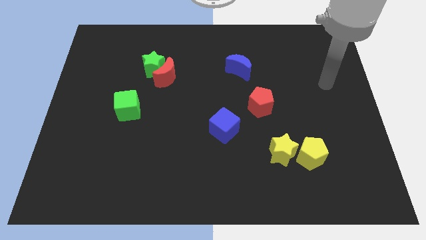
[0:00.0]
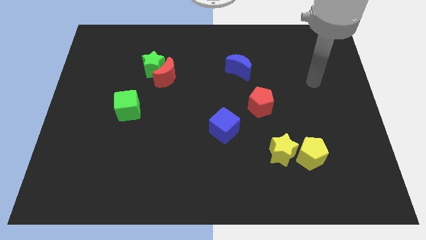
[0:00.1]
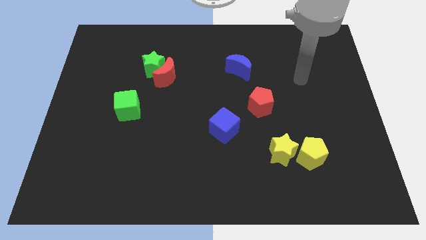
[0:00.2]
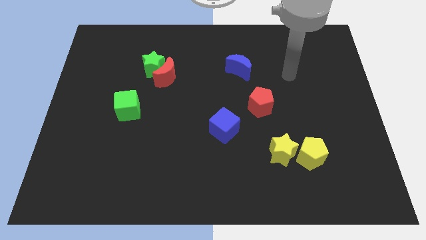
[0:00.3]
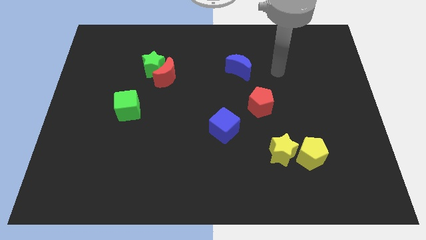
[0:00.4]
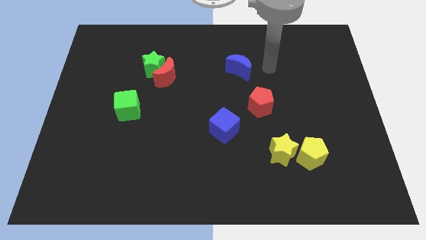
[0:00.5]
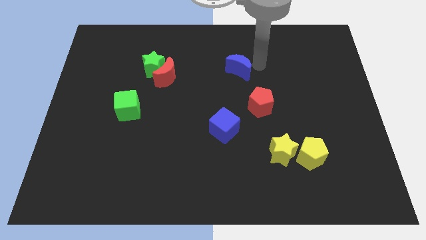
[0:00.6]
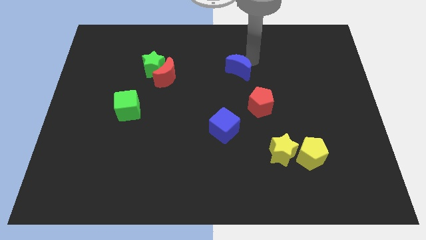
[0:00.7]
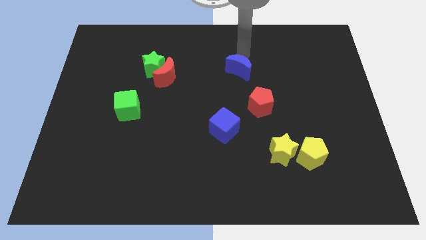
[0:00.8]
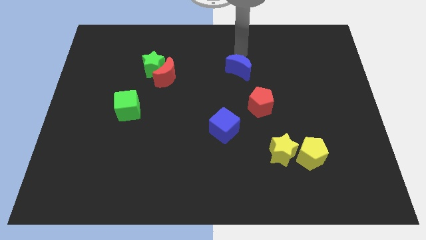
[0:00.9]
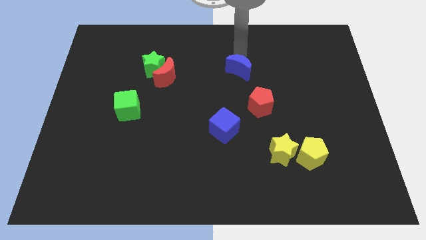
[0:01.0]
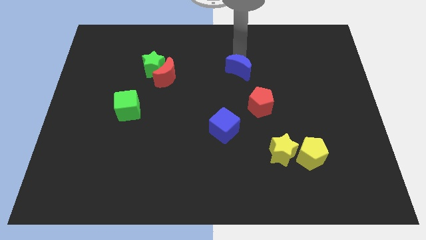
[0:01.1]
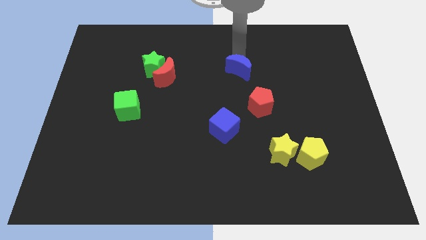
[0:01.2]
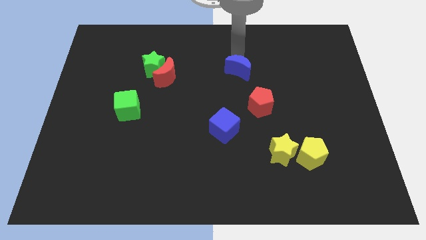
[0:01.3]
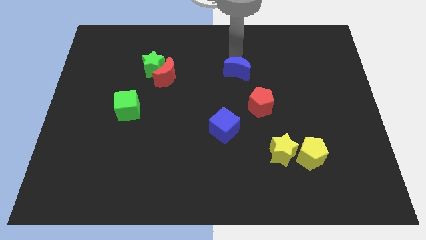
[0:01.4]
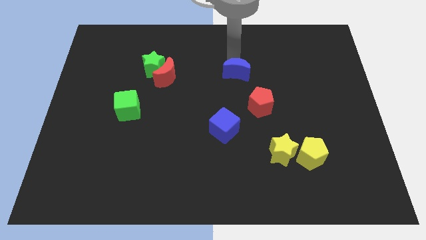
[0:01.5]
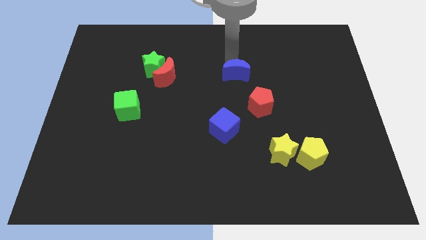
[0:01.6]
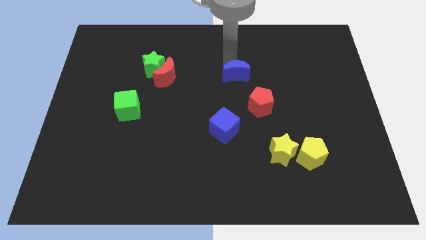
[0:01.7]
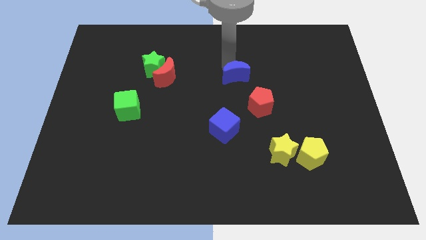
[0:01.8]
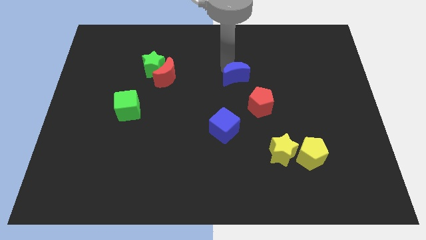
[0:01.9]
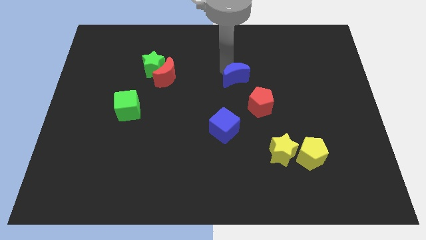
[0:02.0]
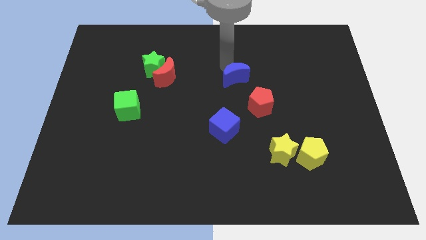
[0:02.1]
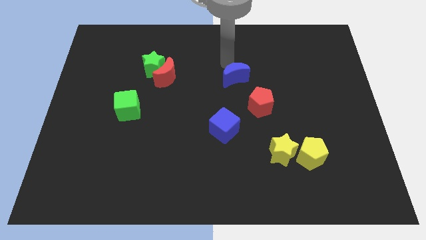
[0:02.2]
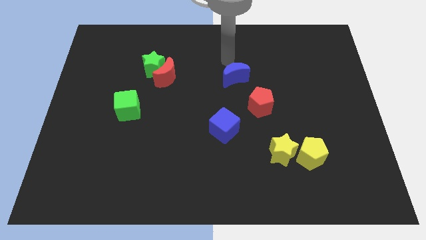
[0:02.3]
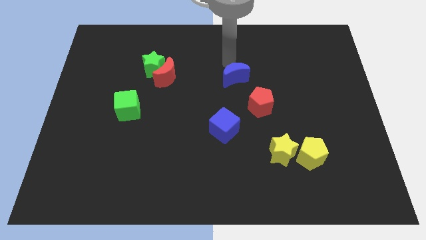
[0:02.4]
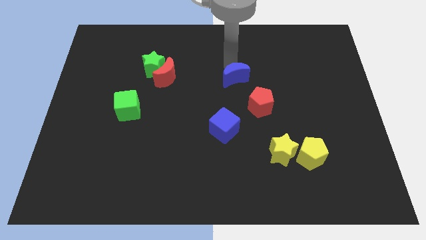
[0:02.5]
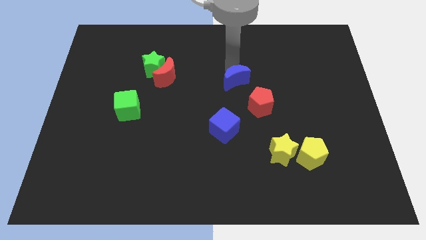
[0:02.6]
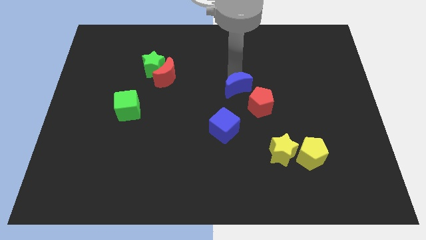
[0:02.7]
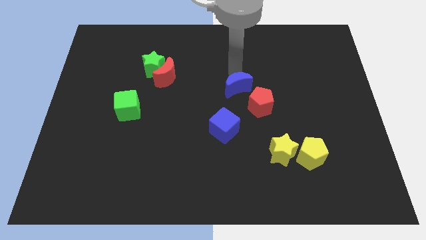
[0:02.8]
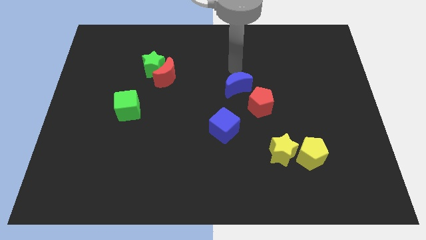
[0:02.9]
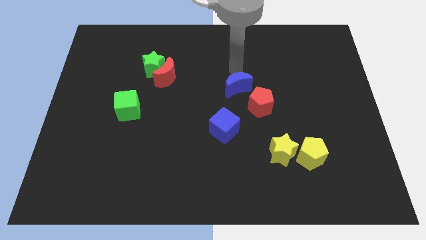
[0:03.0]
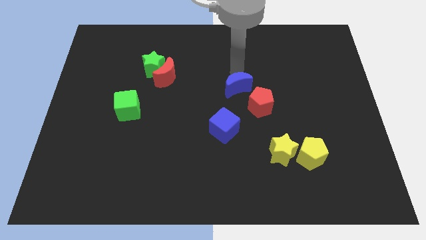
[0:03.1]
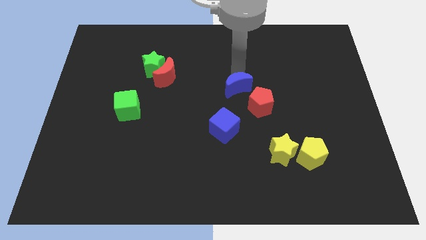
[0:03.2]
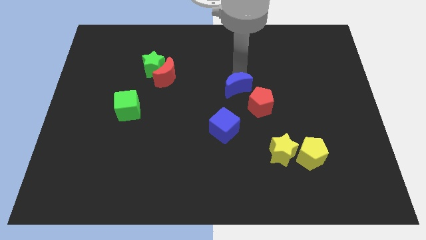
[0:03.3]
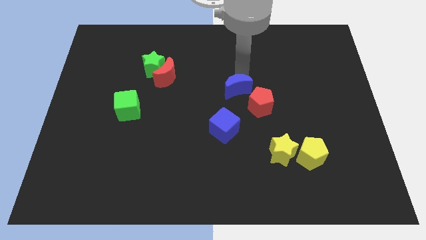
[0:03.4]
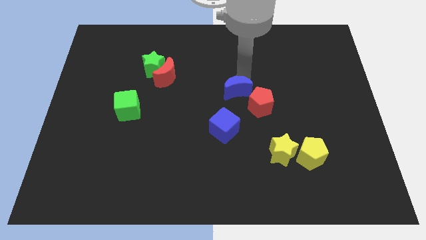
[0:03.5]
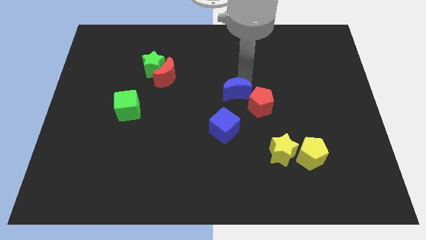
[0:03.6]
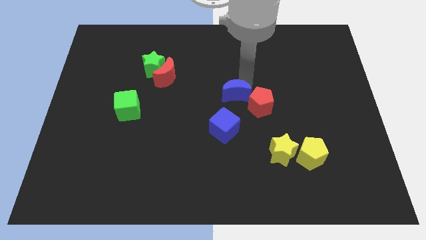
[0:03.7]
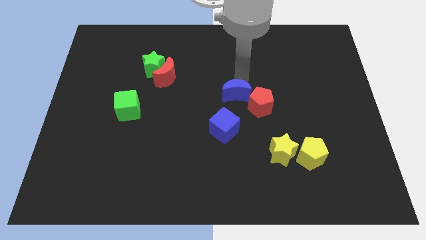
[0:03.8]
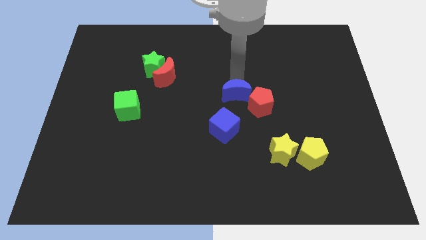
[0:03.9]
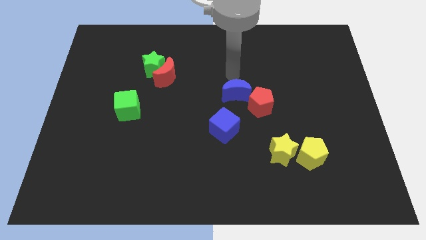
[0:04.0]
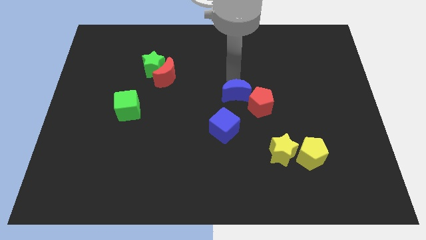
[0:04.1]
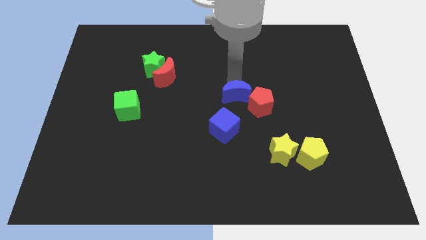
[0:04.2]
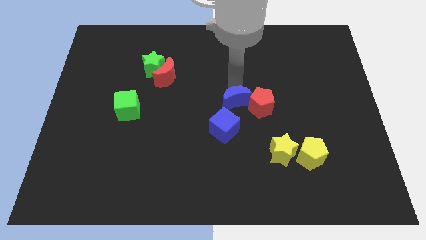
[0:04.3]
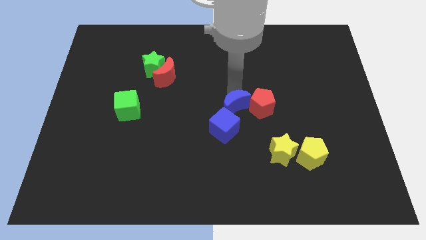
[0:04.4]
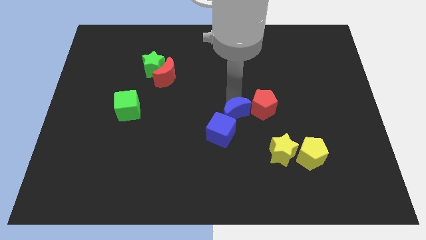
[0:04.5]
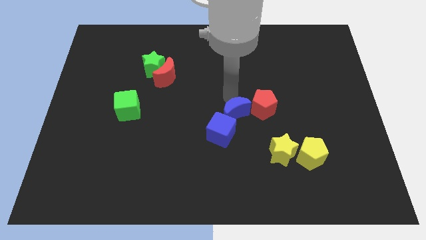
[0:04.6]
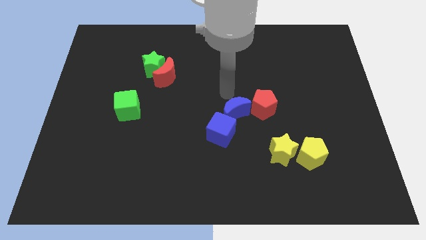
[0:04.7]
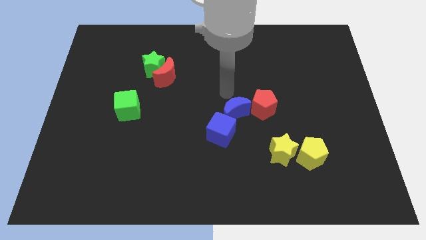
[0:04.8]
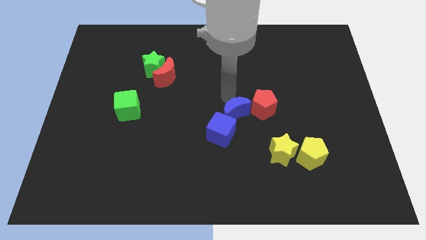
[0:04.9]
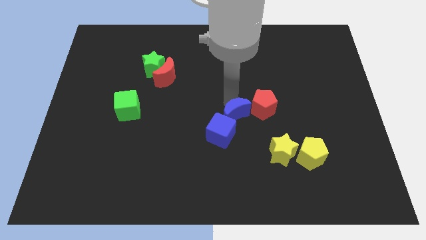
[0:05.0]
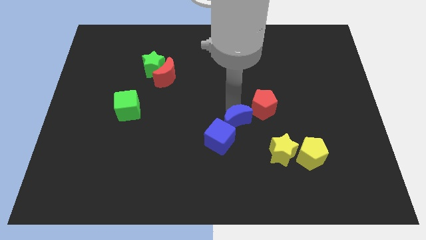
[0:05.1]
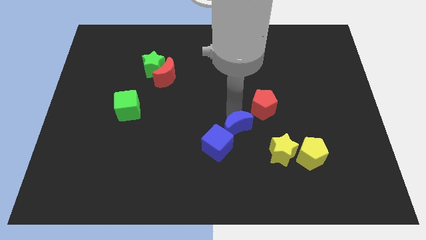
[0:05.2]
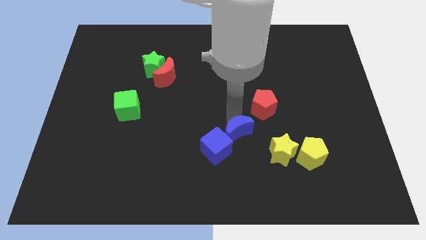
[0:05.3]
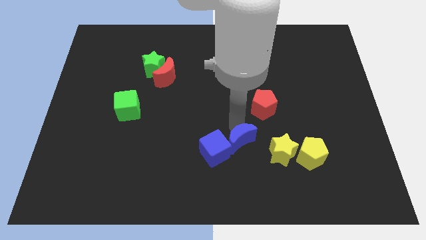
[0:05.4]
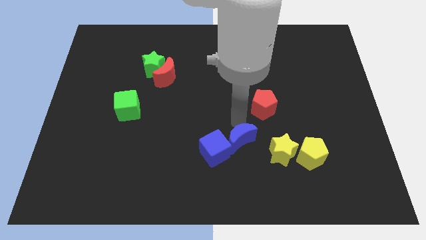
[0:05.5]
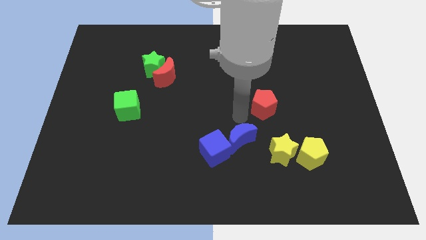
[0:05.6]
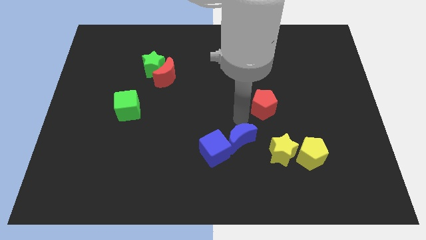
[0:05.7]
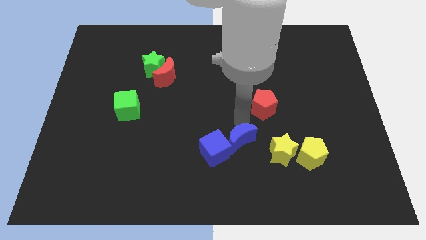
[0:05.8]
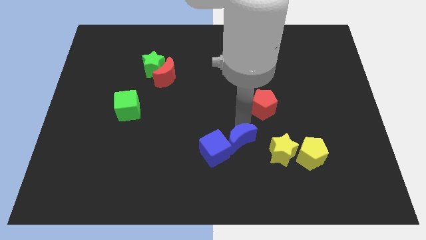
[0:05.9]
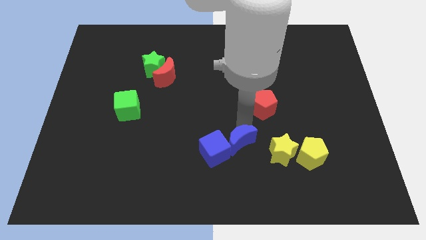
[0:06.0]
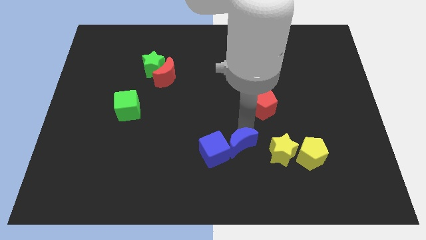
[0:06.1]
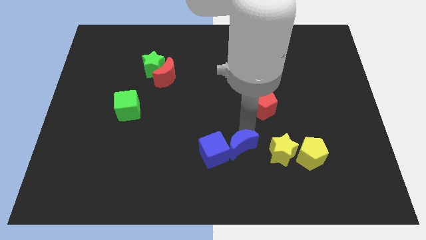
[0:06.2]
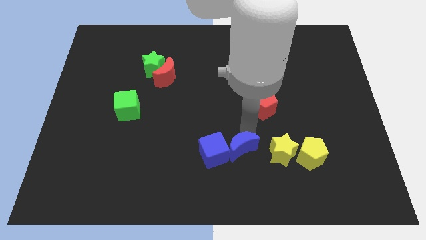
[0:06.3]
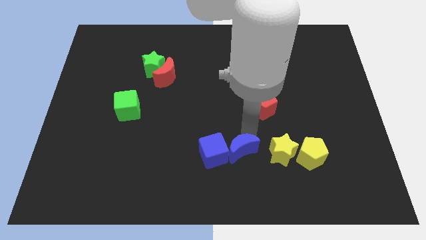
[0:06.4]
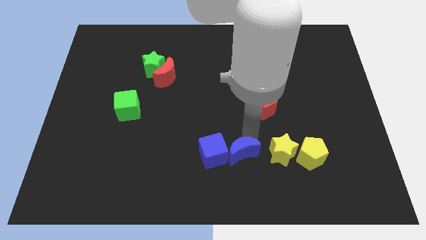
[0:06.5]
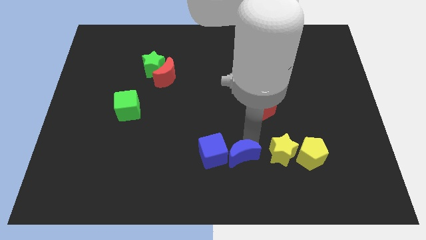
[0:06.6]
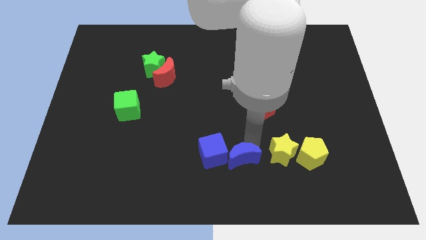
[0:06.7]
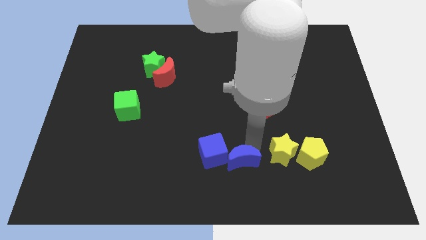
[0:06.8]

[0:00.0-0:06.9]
slide the blue moon to the bottom side

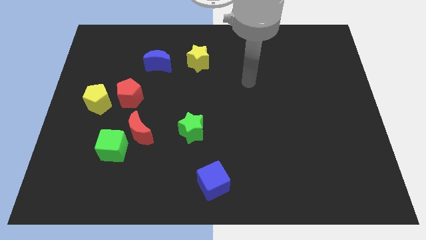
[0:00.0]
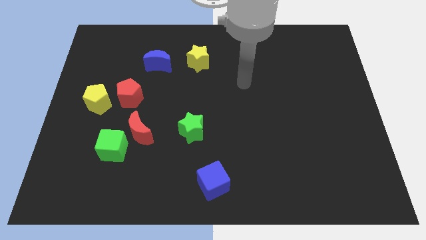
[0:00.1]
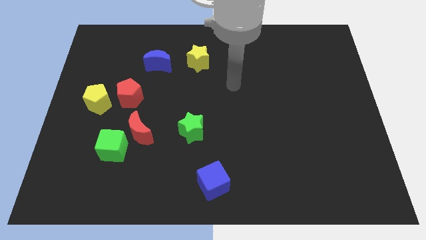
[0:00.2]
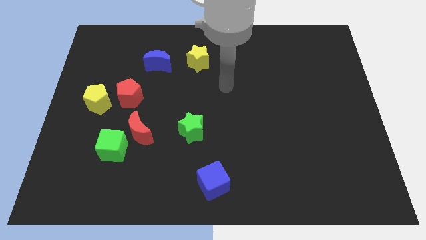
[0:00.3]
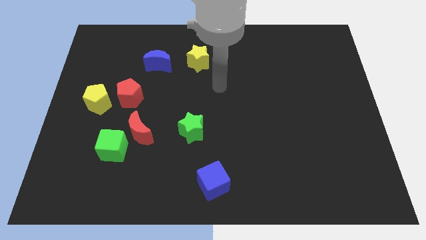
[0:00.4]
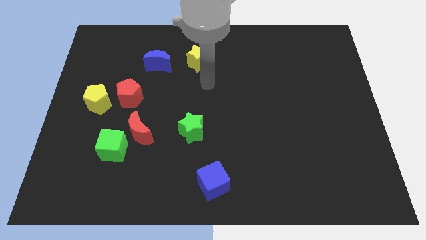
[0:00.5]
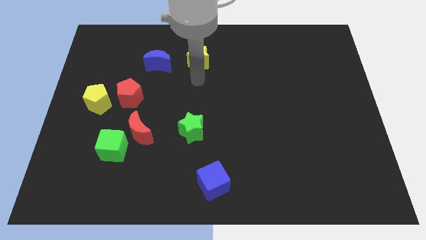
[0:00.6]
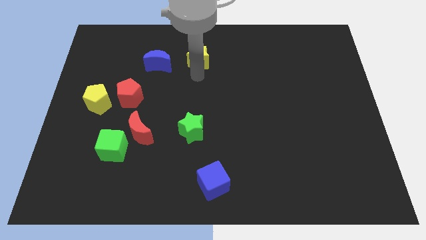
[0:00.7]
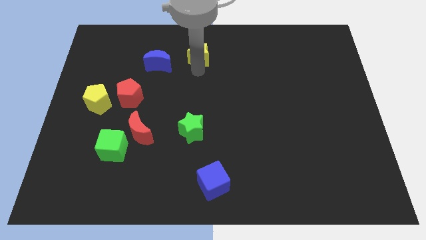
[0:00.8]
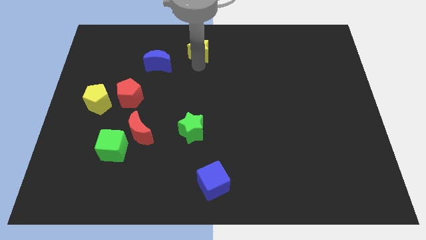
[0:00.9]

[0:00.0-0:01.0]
slide the yellow star to the top
